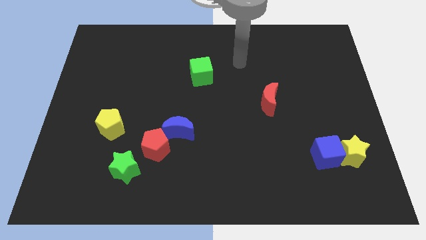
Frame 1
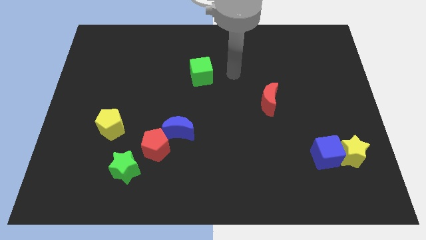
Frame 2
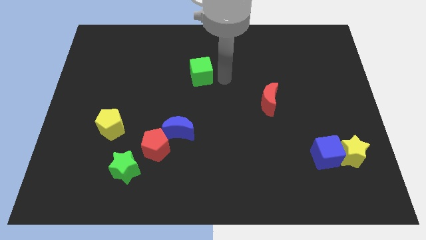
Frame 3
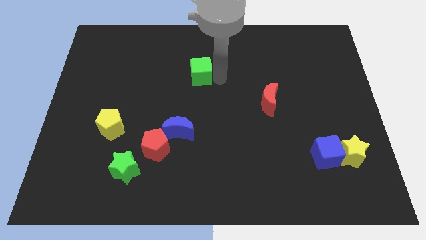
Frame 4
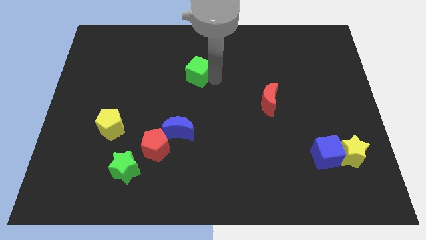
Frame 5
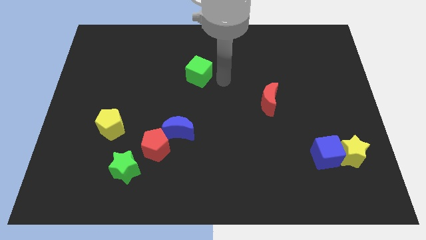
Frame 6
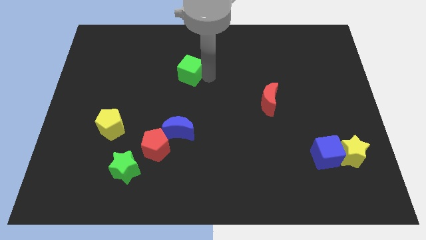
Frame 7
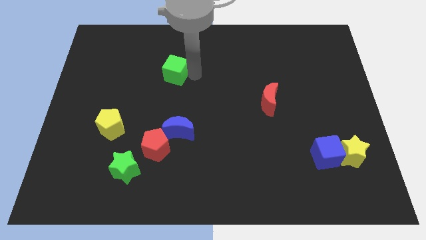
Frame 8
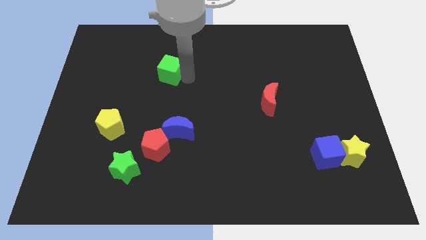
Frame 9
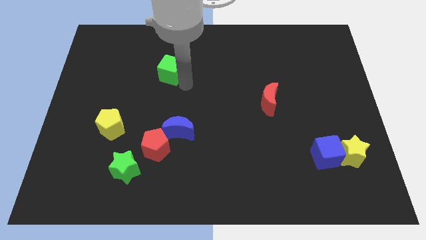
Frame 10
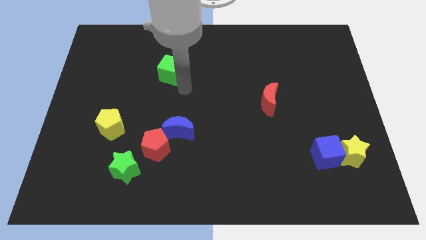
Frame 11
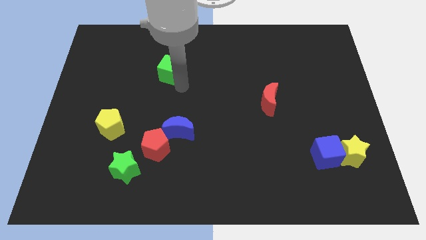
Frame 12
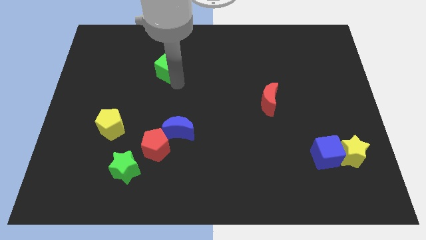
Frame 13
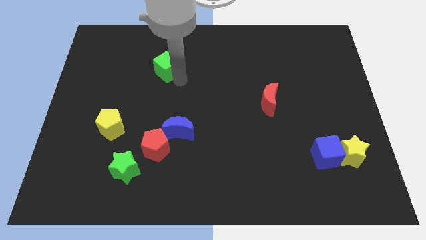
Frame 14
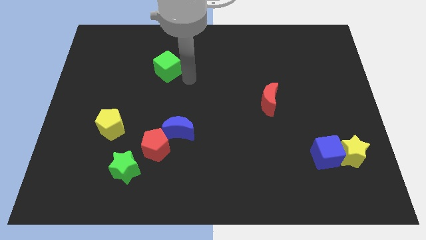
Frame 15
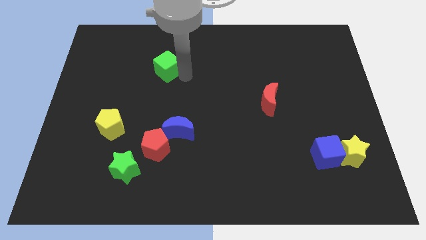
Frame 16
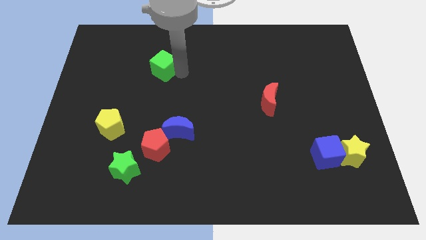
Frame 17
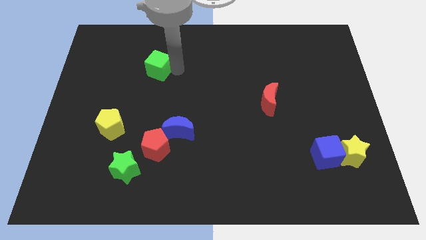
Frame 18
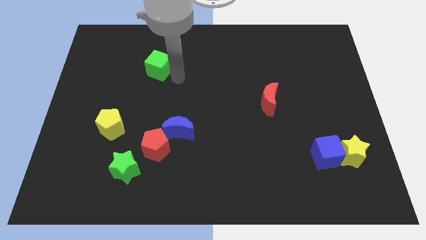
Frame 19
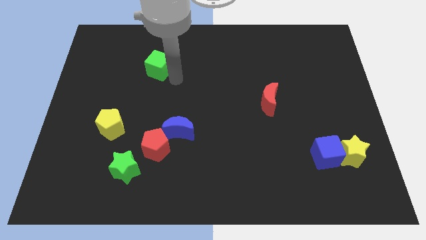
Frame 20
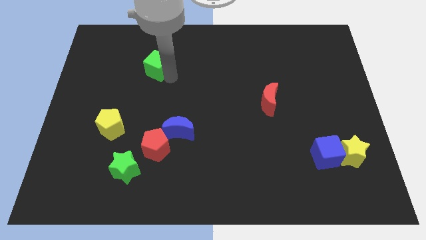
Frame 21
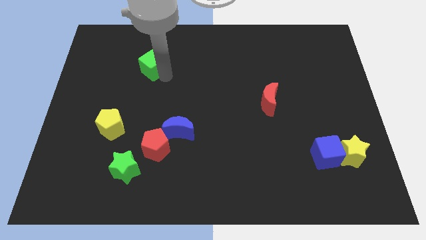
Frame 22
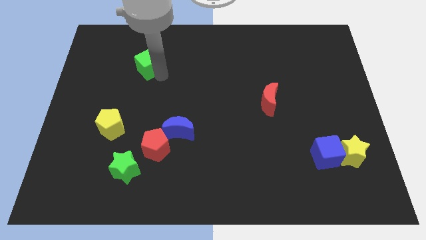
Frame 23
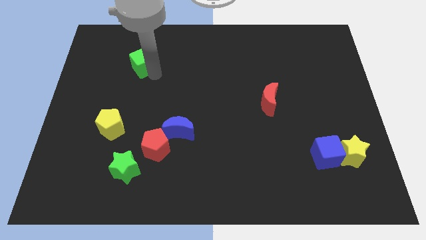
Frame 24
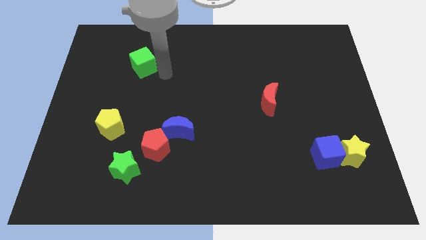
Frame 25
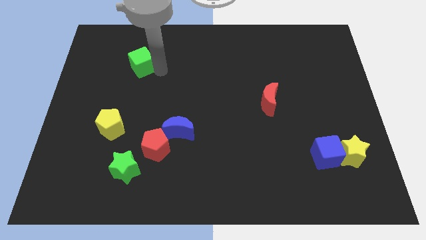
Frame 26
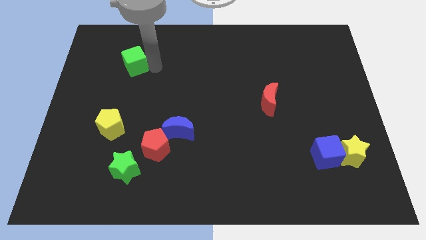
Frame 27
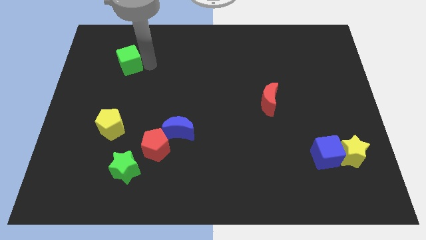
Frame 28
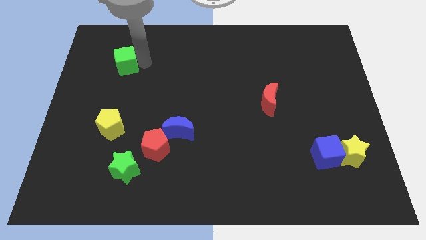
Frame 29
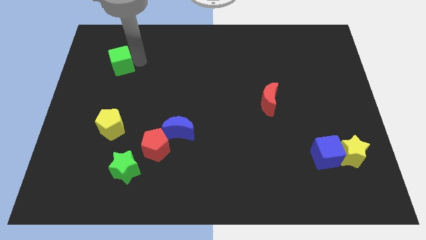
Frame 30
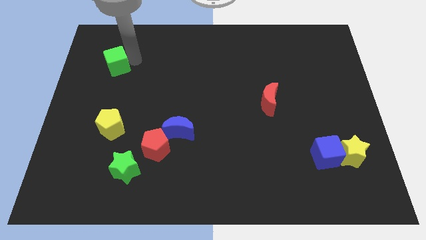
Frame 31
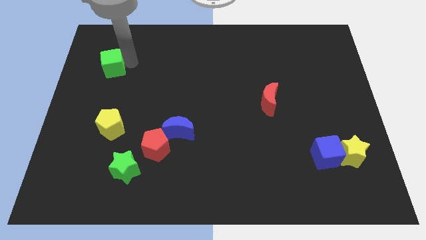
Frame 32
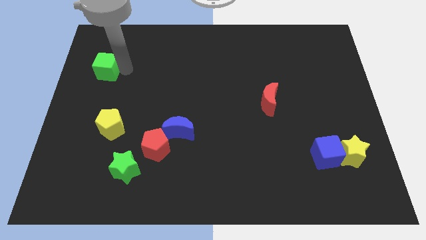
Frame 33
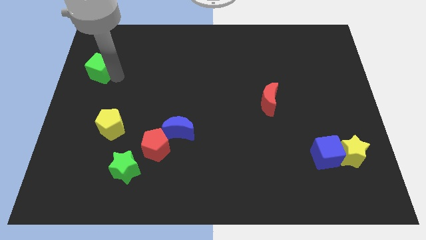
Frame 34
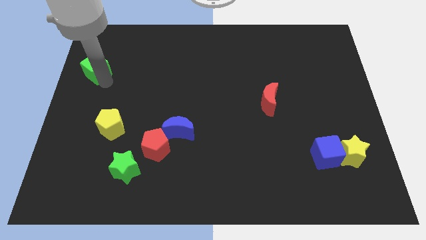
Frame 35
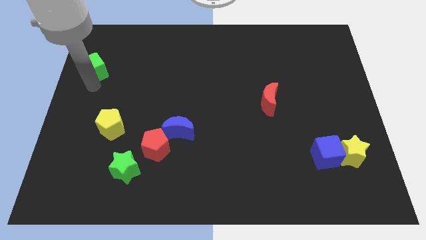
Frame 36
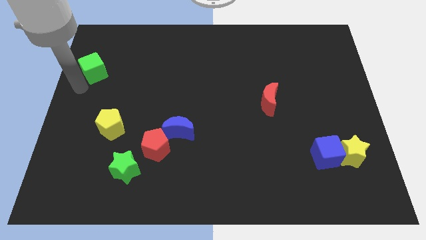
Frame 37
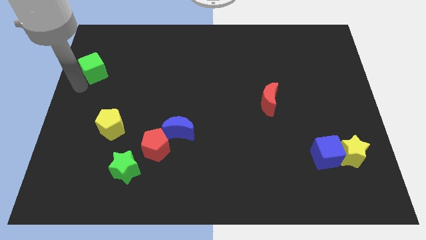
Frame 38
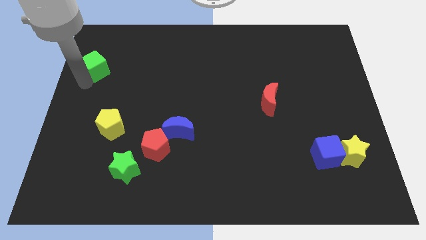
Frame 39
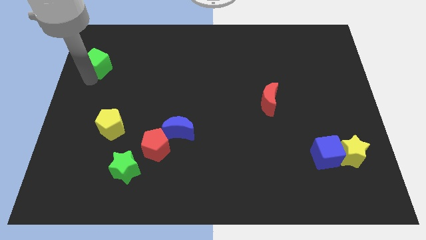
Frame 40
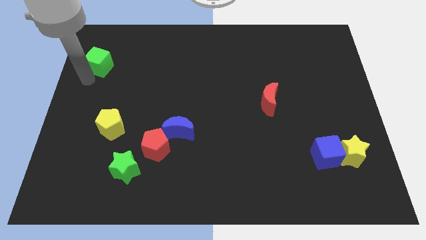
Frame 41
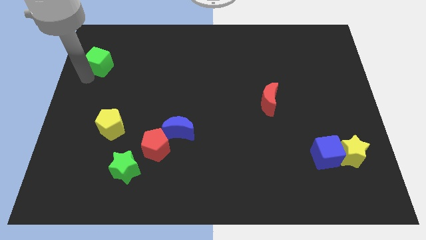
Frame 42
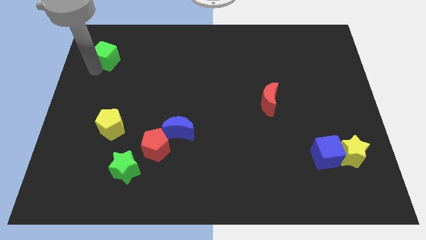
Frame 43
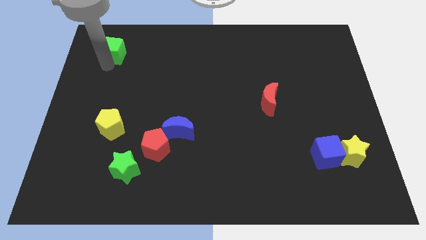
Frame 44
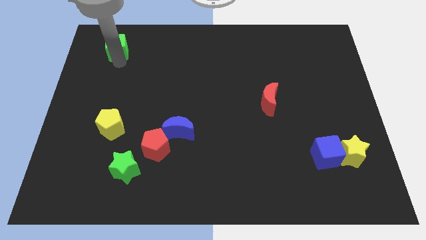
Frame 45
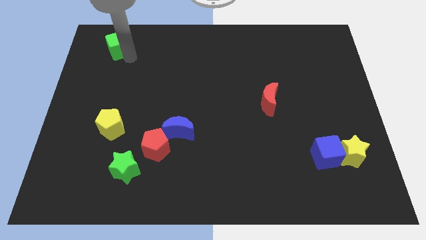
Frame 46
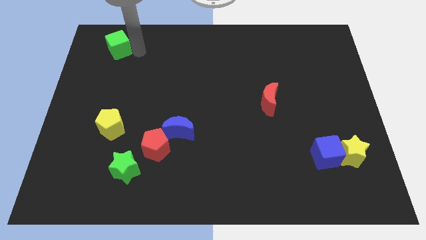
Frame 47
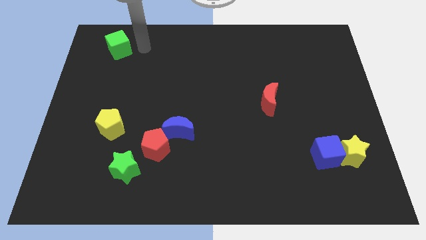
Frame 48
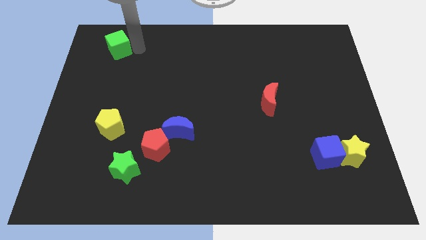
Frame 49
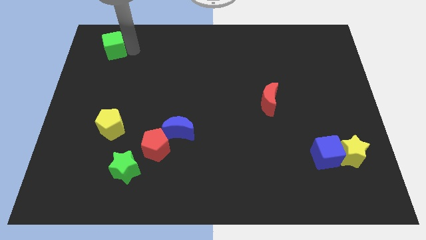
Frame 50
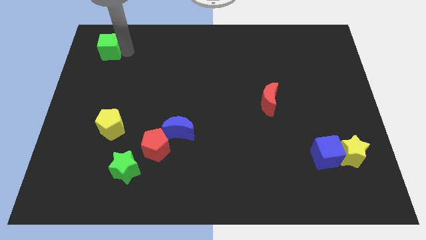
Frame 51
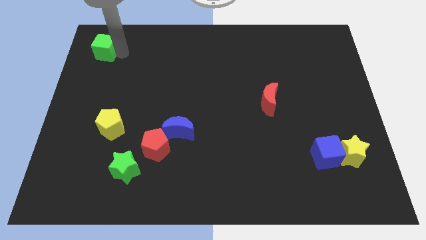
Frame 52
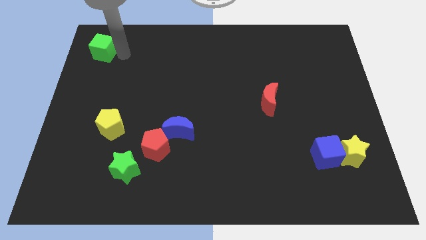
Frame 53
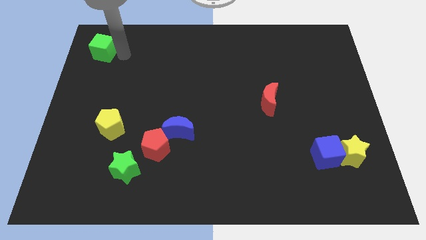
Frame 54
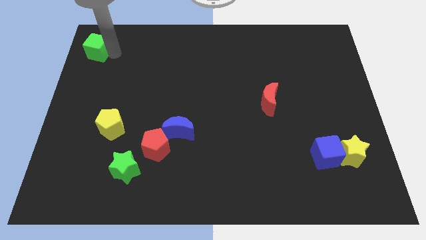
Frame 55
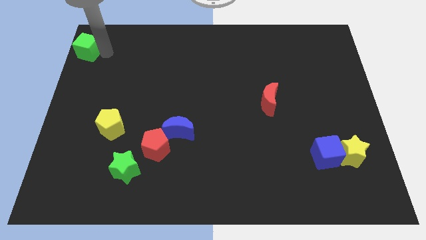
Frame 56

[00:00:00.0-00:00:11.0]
put the green cube to the top left of the board

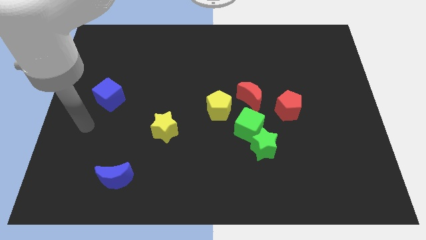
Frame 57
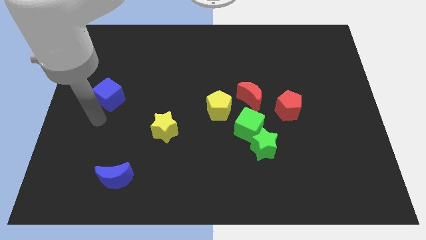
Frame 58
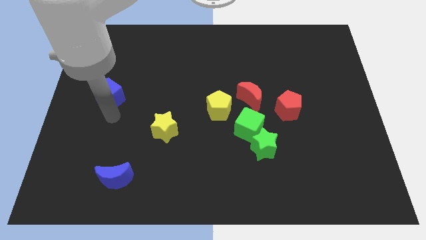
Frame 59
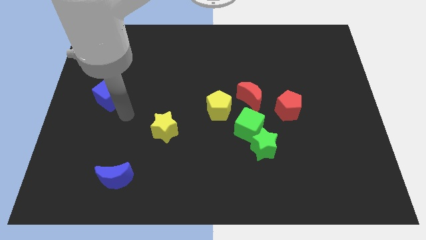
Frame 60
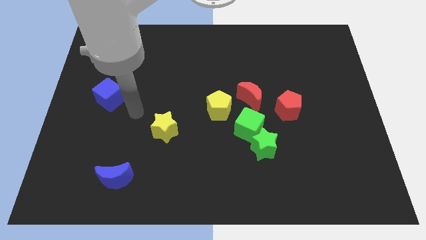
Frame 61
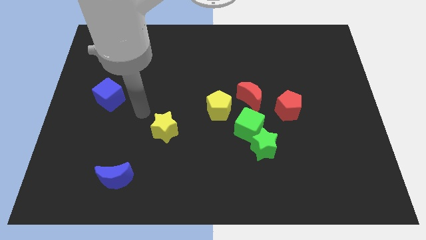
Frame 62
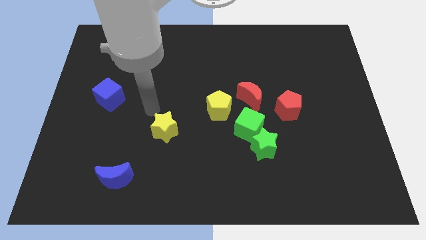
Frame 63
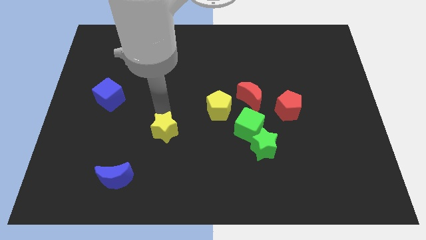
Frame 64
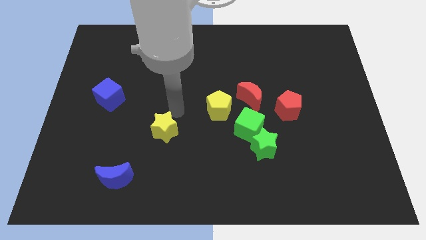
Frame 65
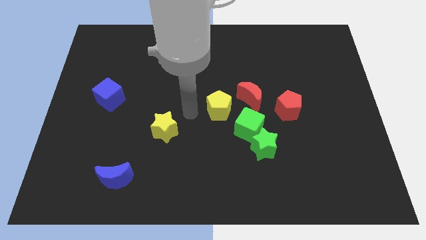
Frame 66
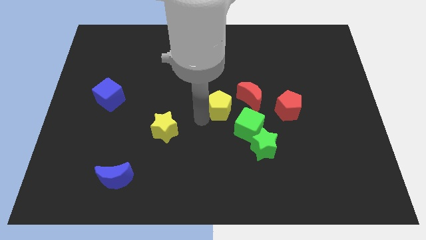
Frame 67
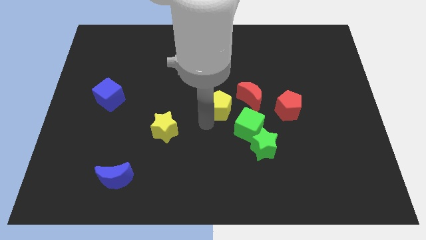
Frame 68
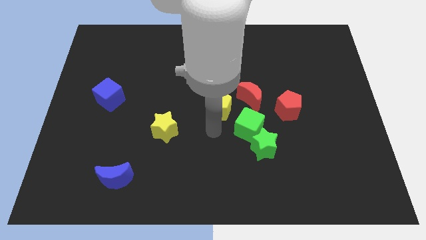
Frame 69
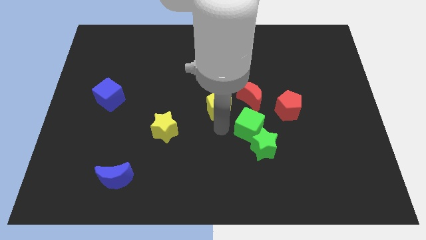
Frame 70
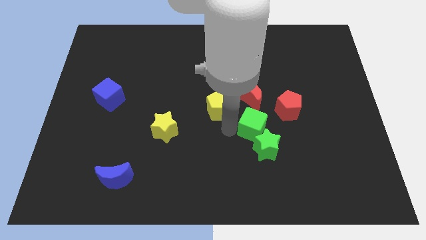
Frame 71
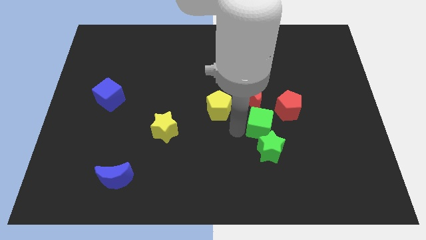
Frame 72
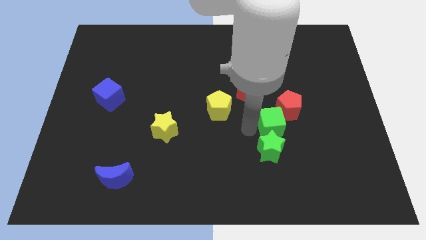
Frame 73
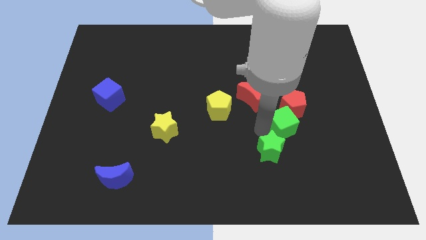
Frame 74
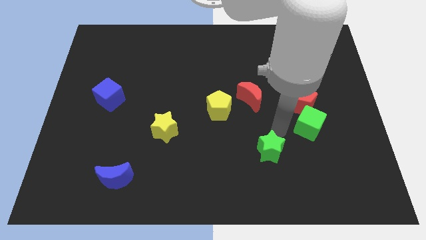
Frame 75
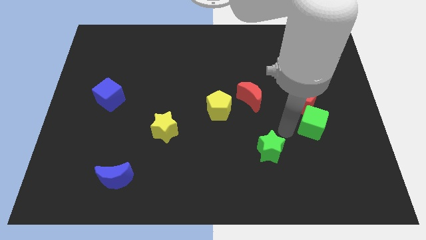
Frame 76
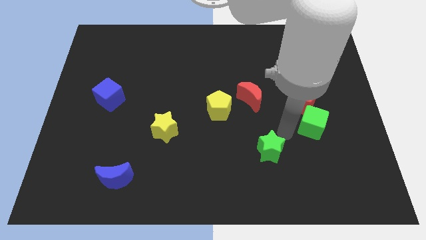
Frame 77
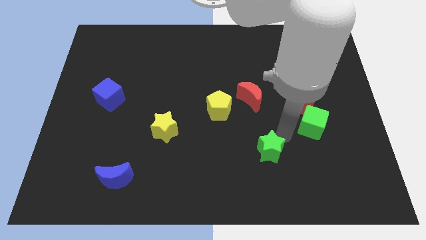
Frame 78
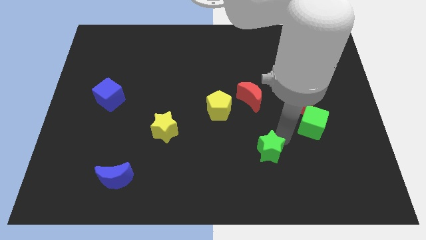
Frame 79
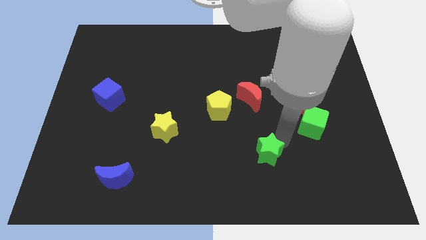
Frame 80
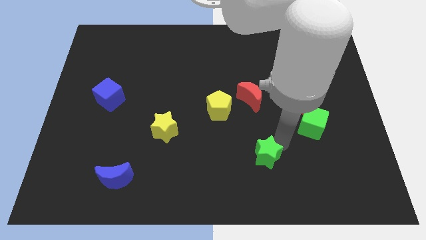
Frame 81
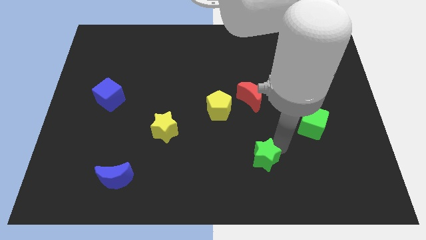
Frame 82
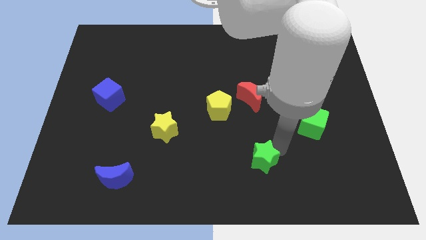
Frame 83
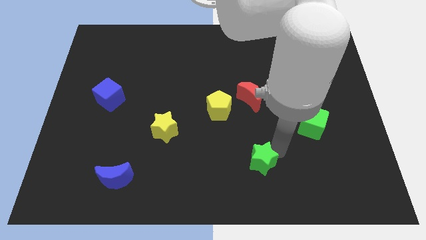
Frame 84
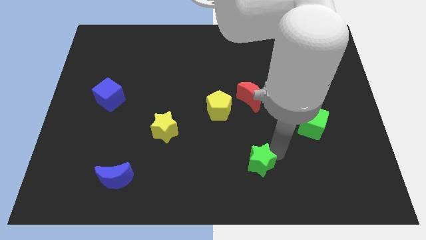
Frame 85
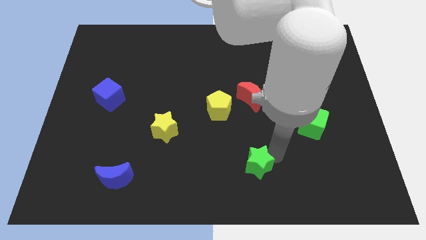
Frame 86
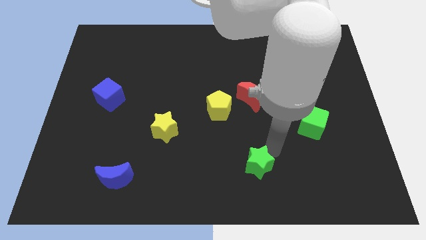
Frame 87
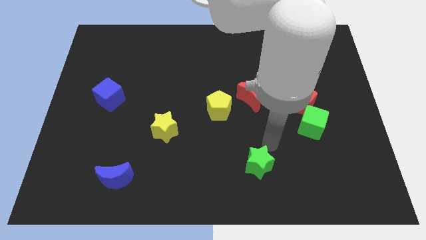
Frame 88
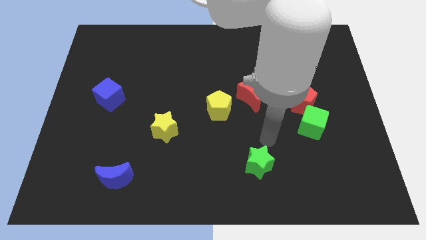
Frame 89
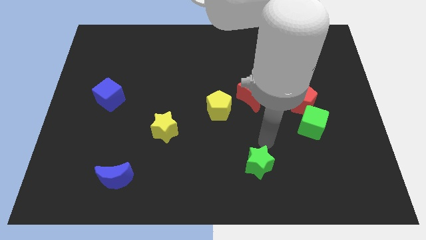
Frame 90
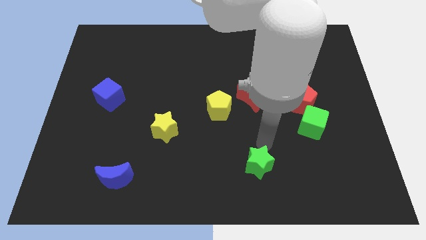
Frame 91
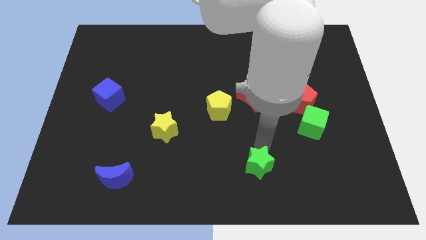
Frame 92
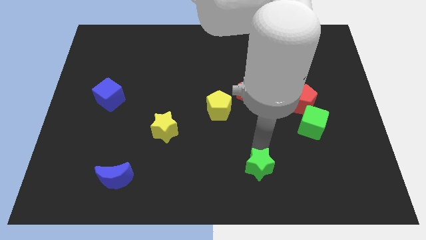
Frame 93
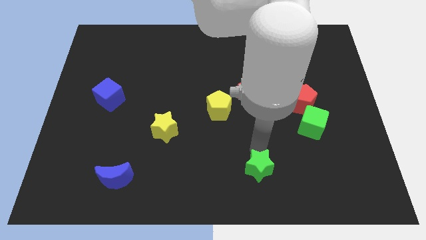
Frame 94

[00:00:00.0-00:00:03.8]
push the green star to the bottom
